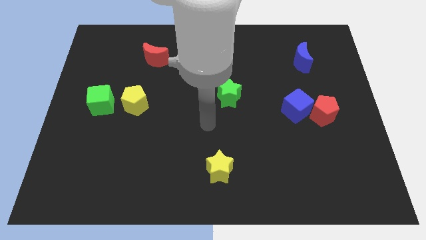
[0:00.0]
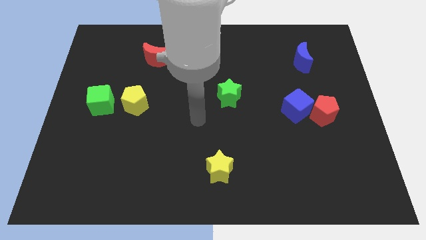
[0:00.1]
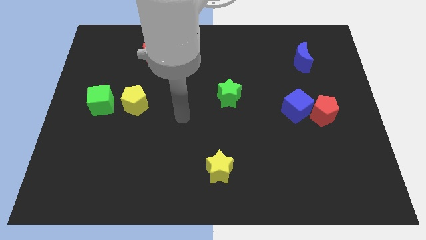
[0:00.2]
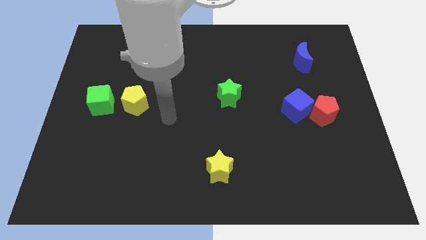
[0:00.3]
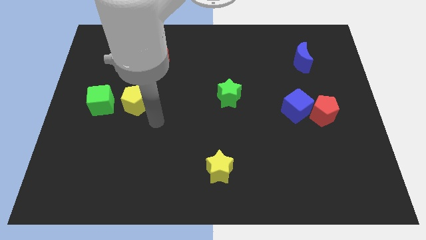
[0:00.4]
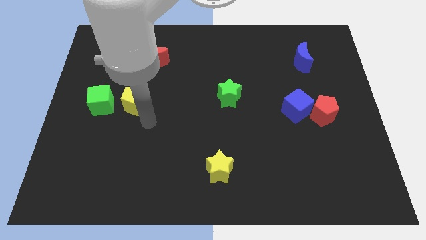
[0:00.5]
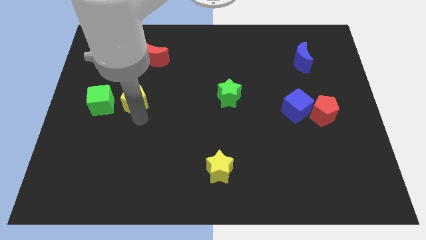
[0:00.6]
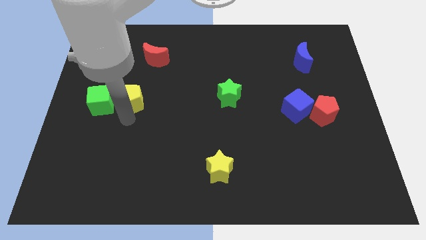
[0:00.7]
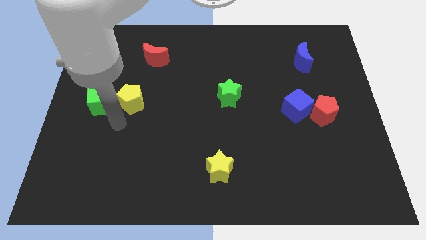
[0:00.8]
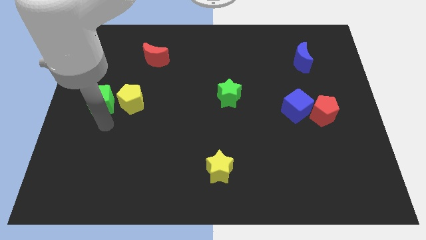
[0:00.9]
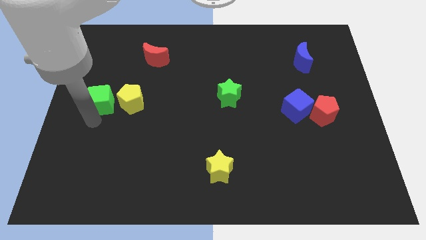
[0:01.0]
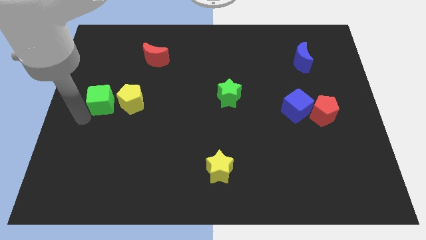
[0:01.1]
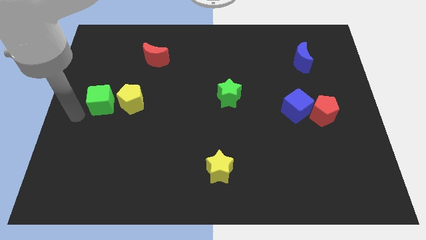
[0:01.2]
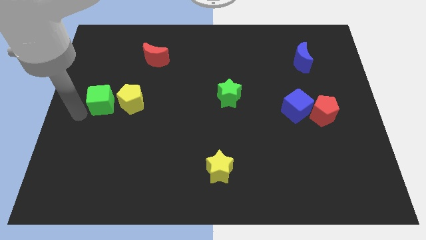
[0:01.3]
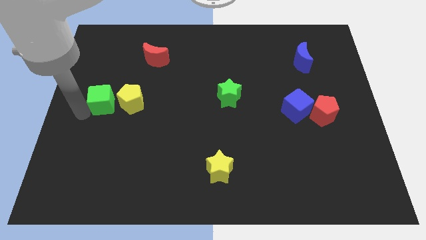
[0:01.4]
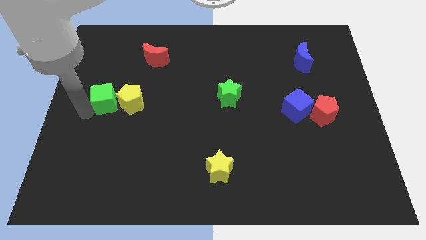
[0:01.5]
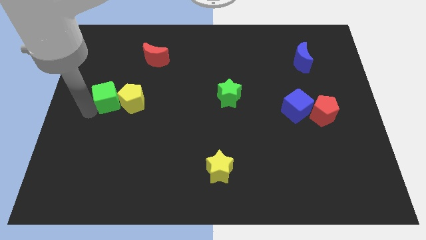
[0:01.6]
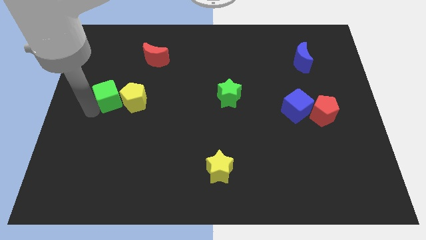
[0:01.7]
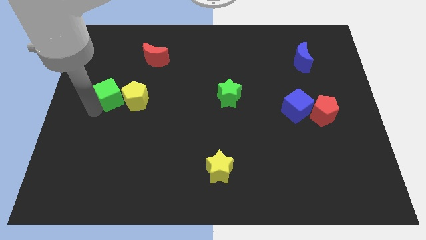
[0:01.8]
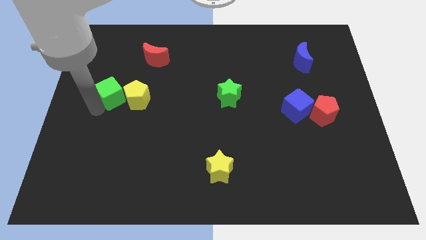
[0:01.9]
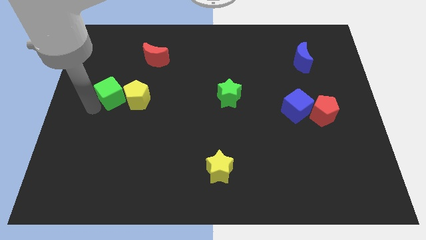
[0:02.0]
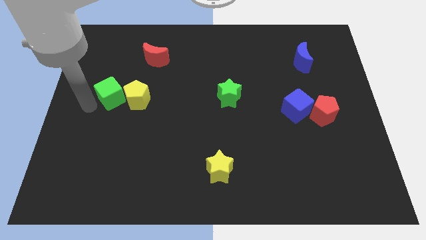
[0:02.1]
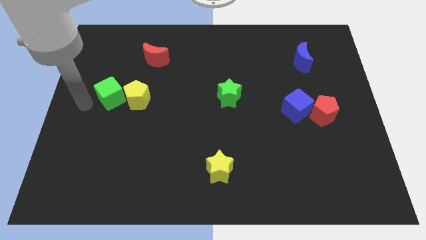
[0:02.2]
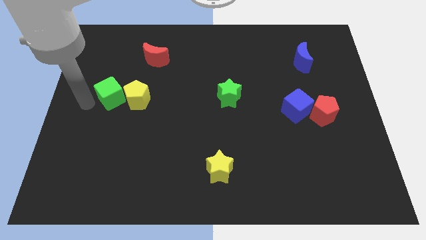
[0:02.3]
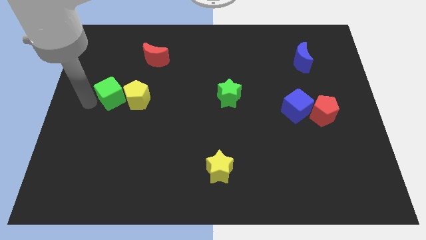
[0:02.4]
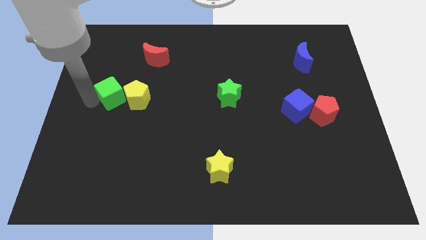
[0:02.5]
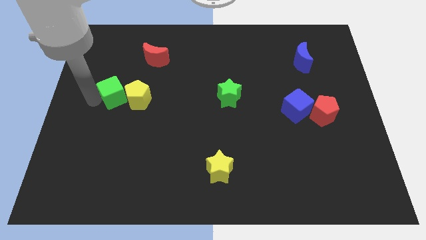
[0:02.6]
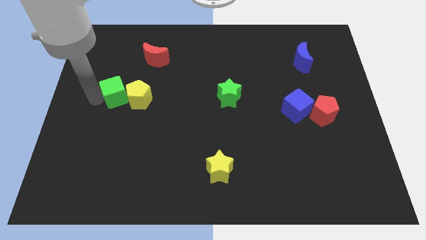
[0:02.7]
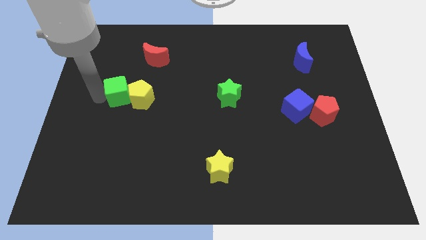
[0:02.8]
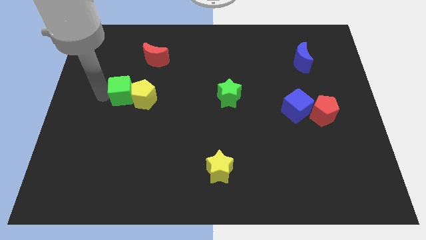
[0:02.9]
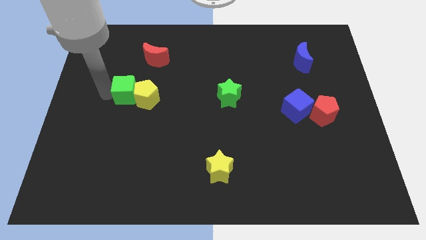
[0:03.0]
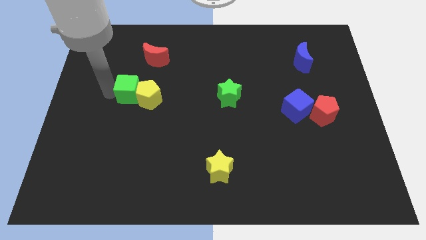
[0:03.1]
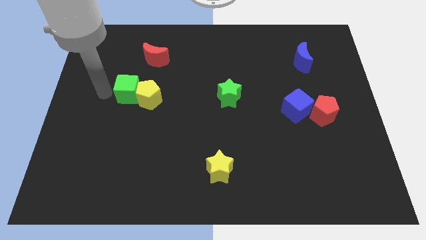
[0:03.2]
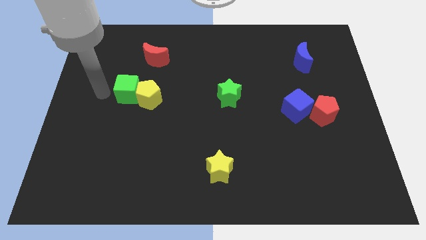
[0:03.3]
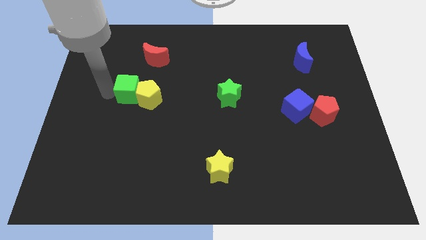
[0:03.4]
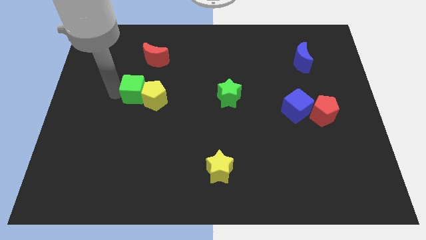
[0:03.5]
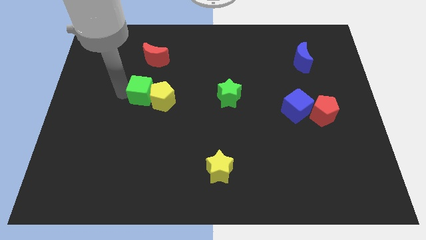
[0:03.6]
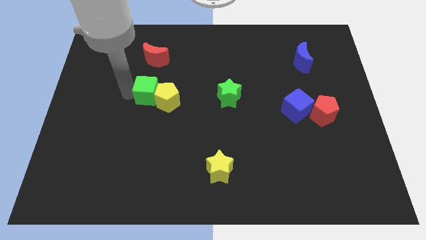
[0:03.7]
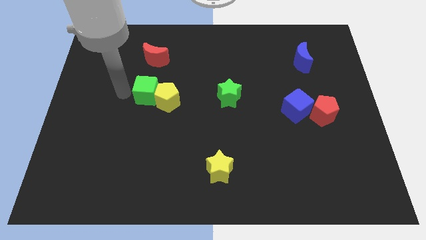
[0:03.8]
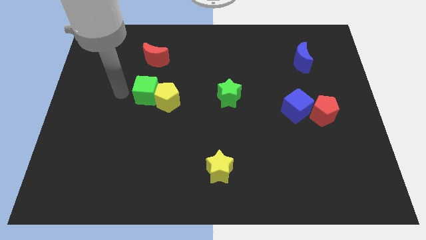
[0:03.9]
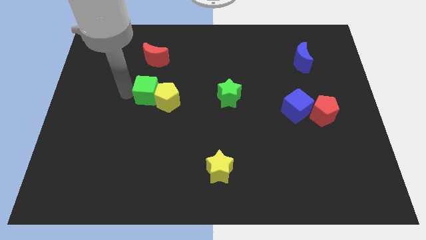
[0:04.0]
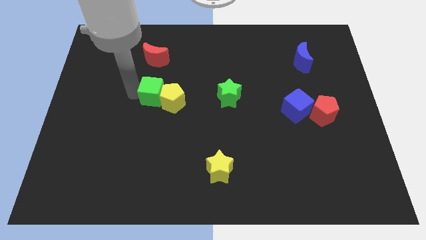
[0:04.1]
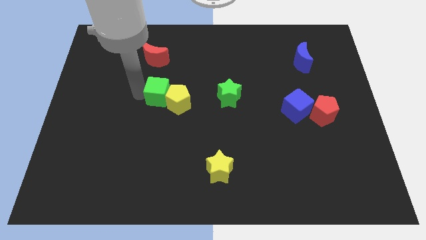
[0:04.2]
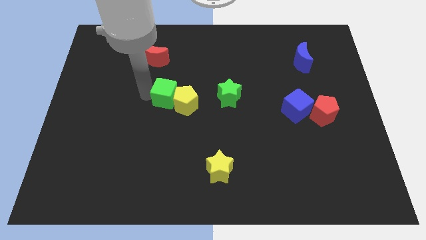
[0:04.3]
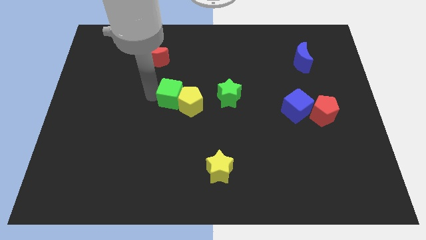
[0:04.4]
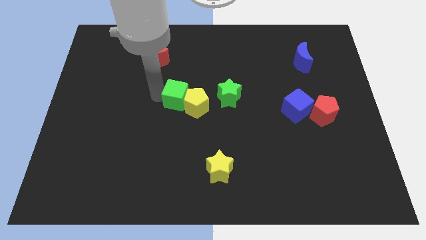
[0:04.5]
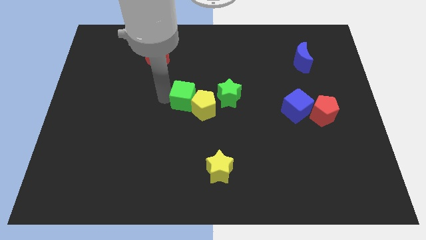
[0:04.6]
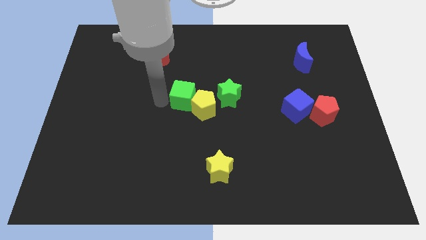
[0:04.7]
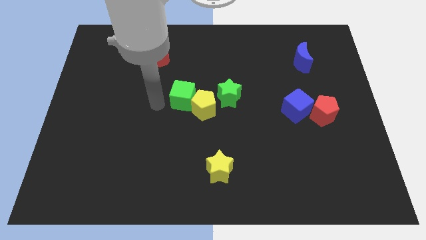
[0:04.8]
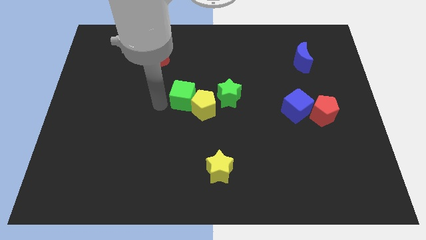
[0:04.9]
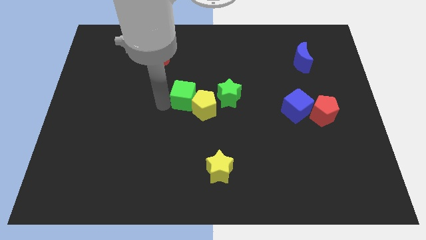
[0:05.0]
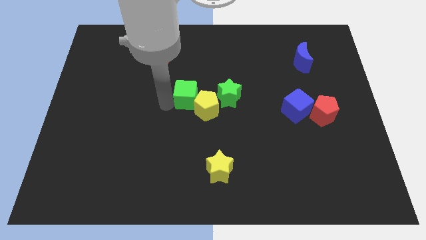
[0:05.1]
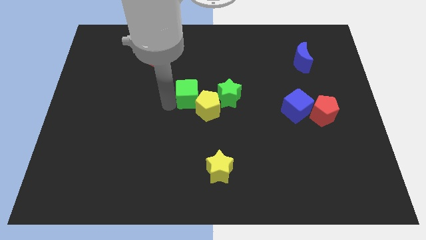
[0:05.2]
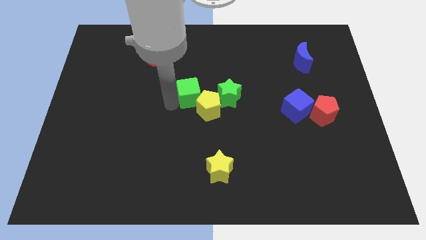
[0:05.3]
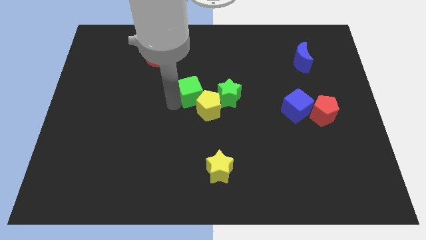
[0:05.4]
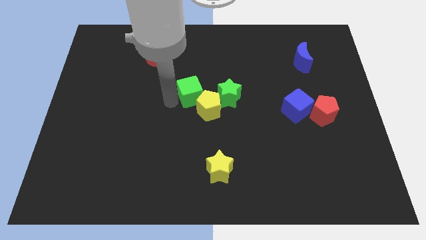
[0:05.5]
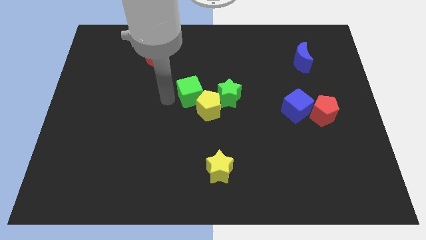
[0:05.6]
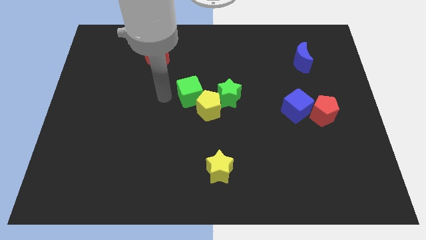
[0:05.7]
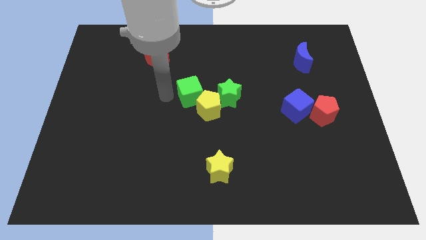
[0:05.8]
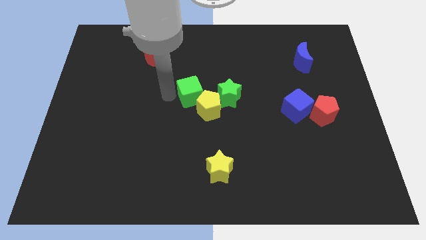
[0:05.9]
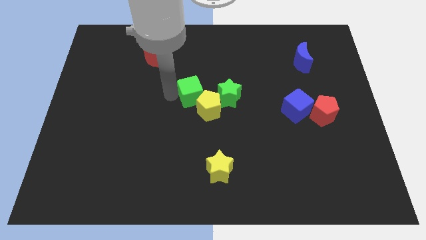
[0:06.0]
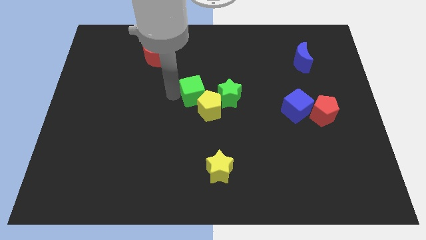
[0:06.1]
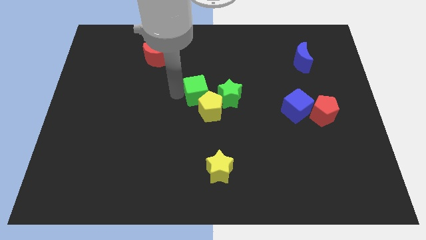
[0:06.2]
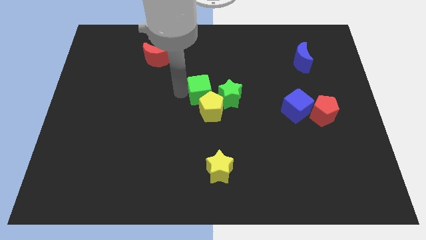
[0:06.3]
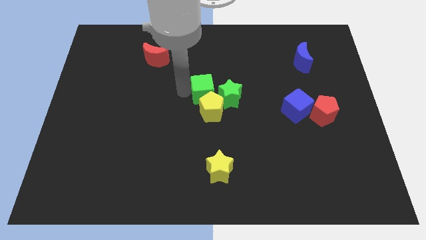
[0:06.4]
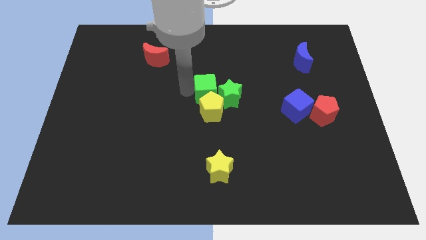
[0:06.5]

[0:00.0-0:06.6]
put the green cube close to the green star

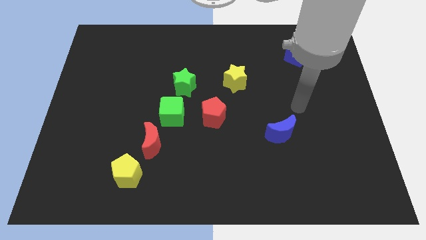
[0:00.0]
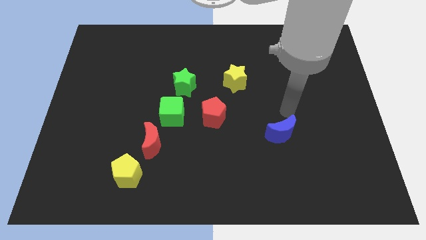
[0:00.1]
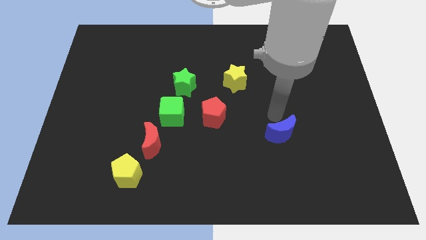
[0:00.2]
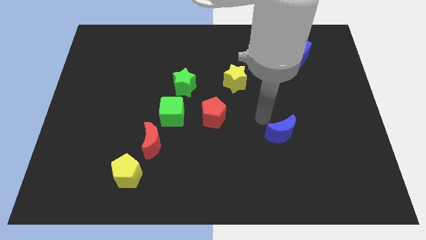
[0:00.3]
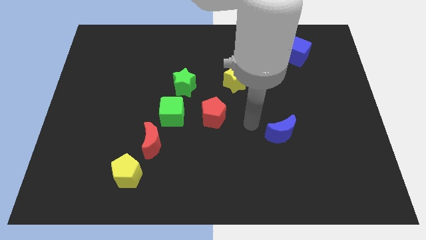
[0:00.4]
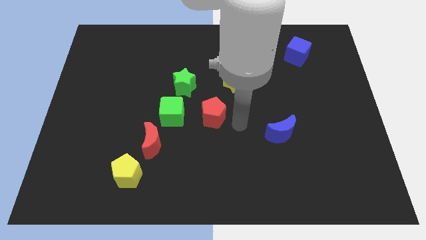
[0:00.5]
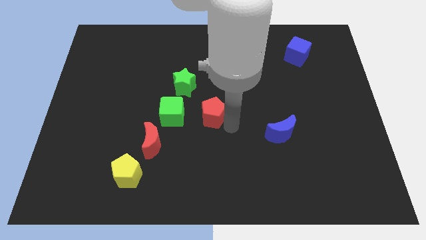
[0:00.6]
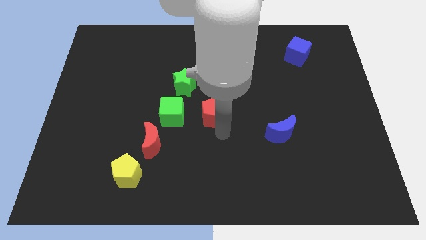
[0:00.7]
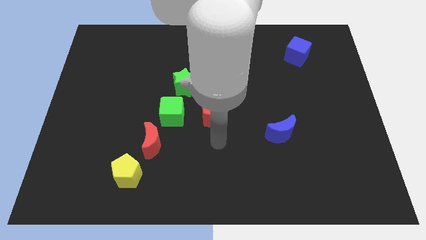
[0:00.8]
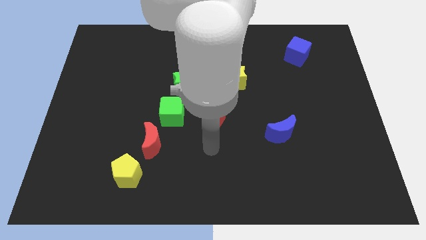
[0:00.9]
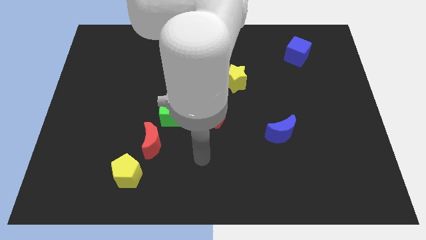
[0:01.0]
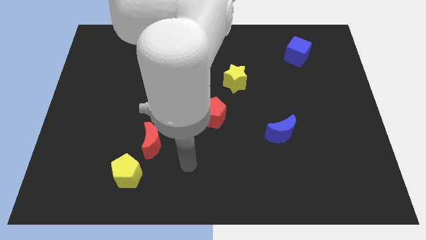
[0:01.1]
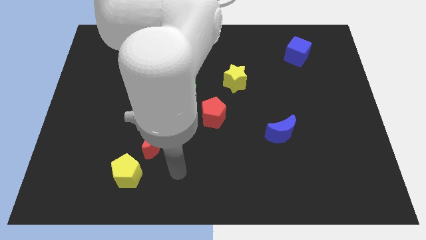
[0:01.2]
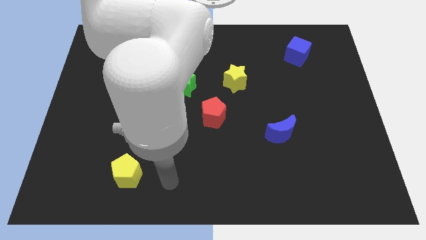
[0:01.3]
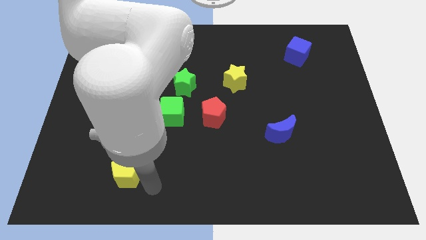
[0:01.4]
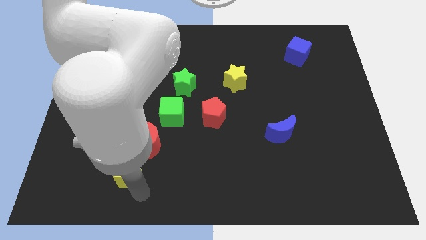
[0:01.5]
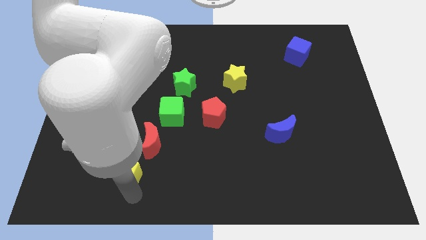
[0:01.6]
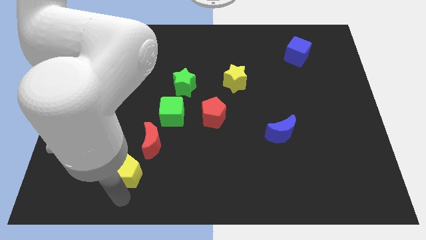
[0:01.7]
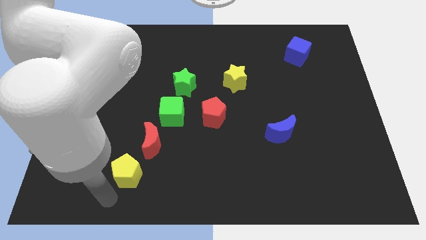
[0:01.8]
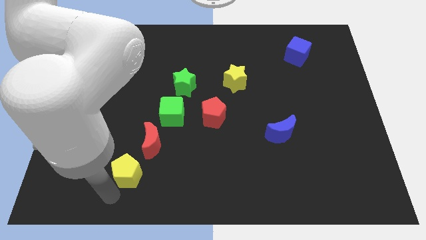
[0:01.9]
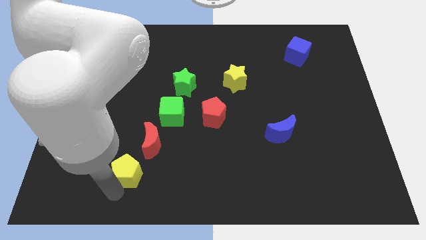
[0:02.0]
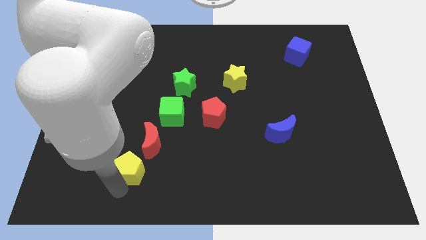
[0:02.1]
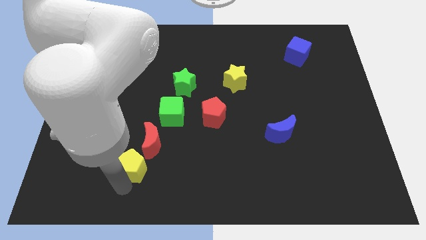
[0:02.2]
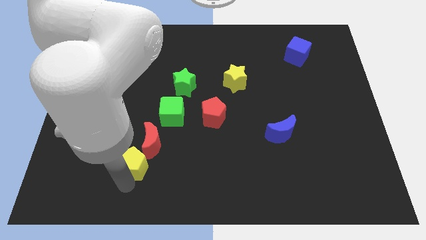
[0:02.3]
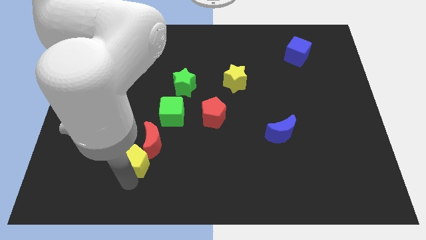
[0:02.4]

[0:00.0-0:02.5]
move the yellow pentagon close to the red moon
